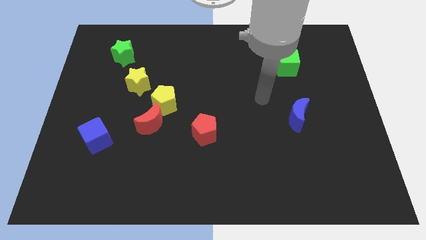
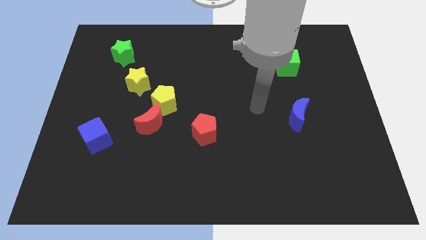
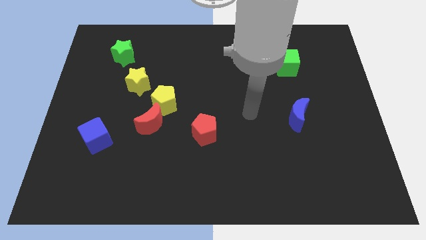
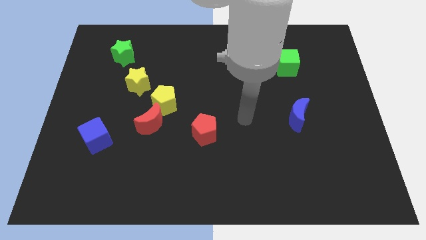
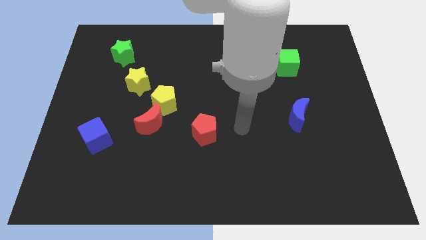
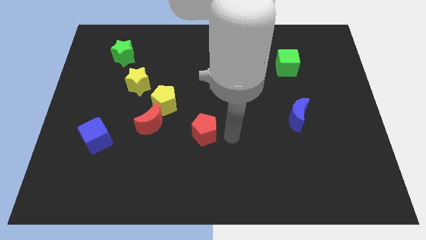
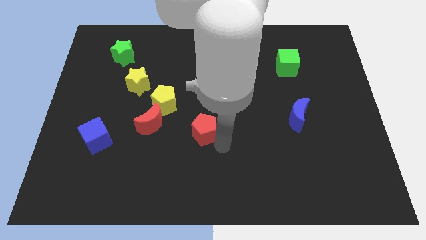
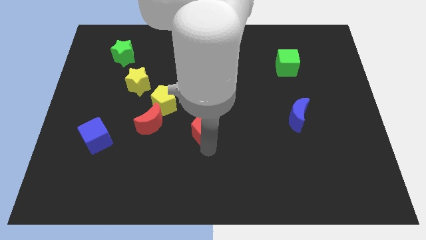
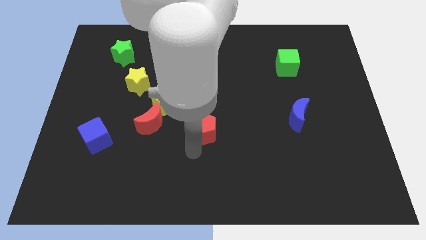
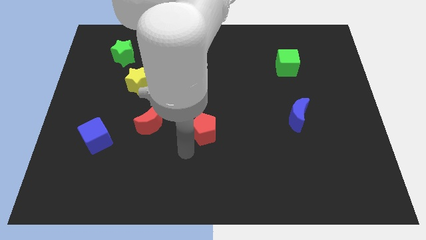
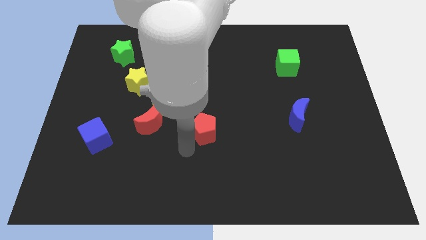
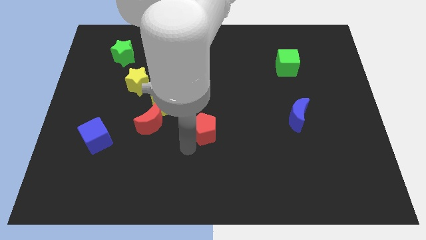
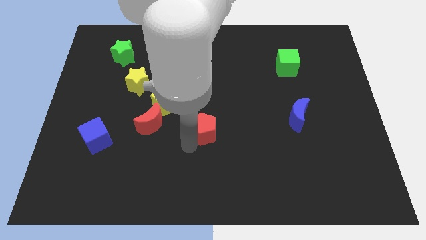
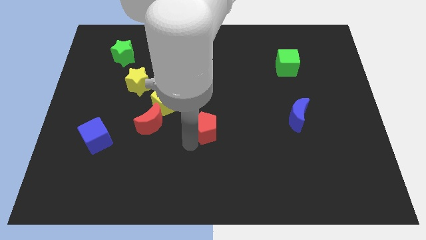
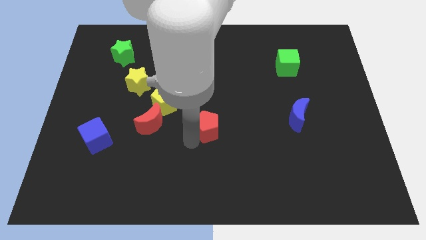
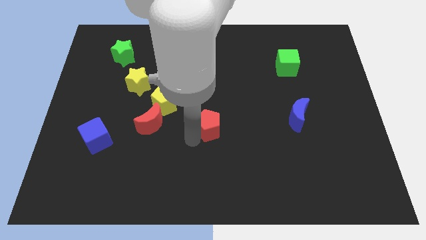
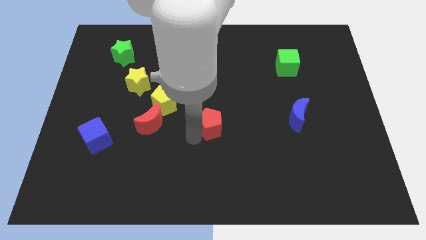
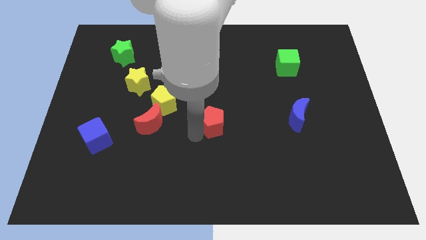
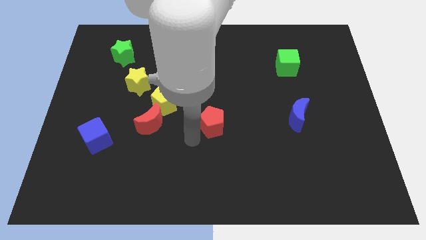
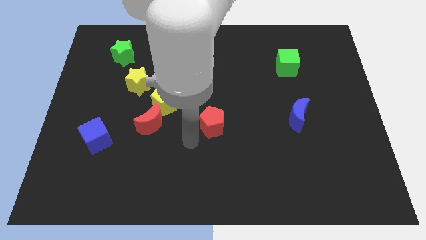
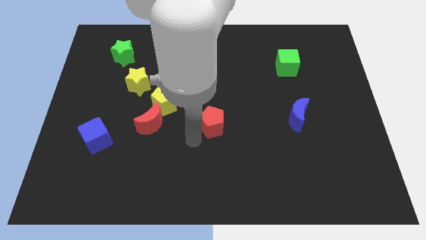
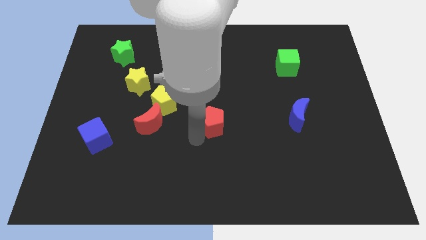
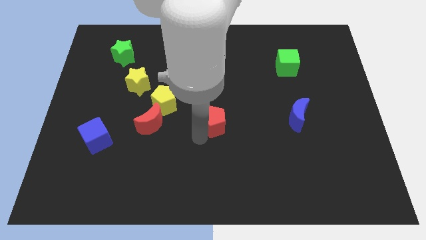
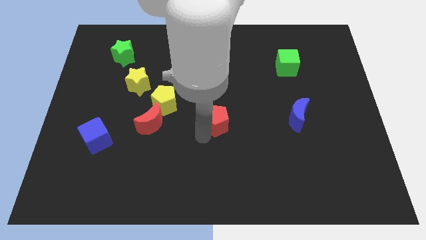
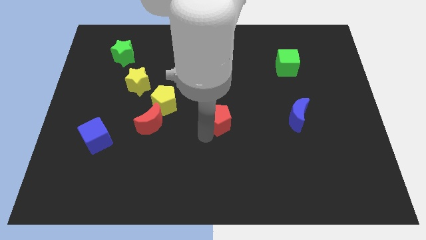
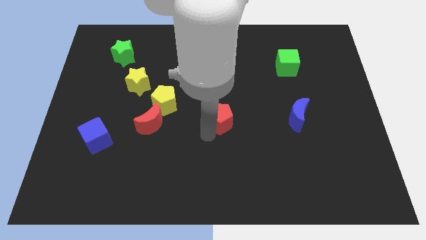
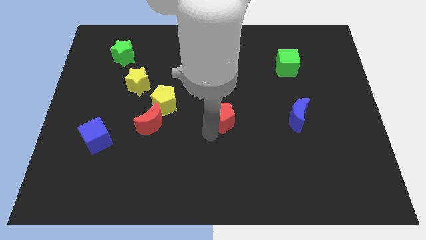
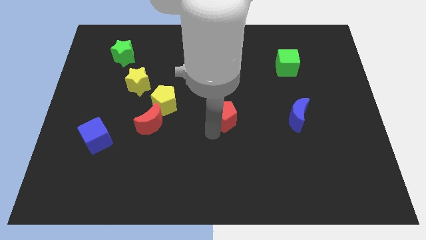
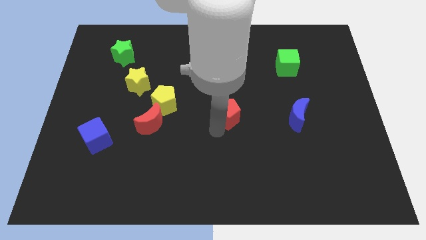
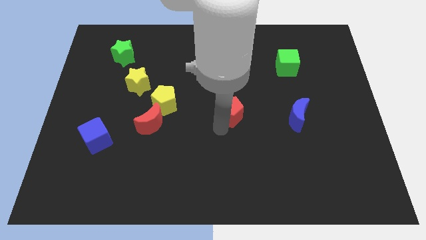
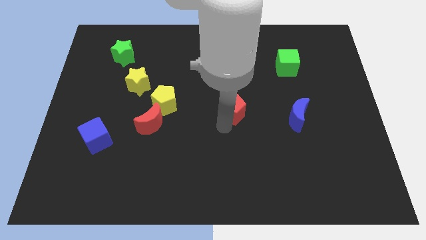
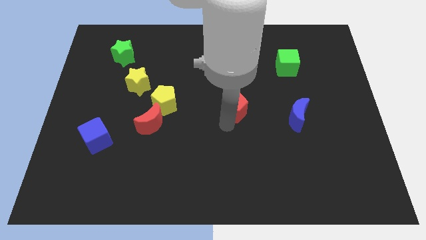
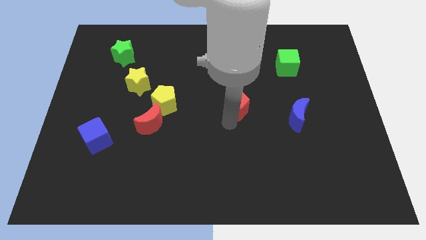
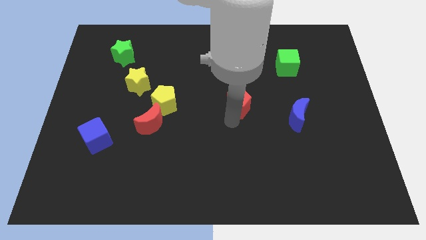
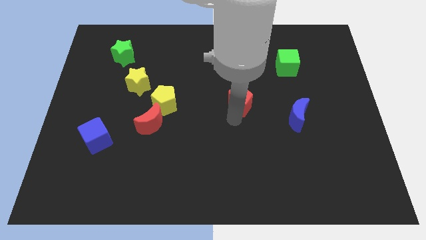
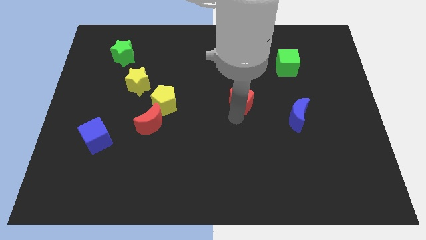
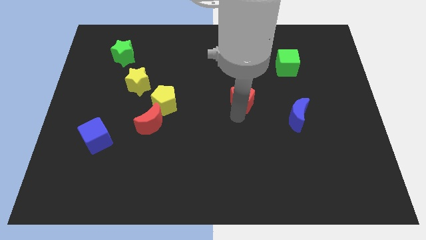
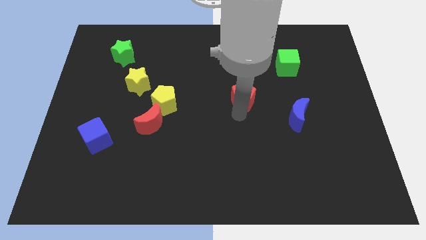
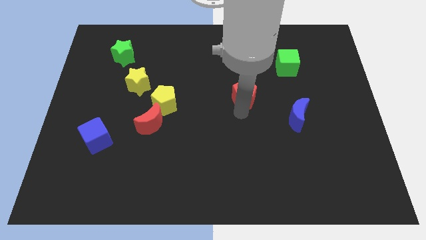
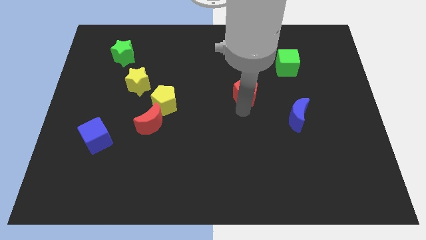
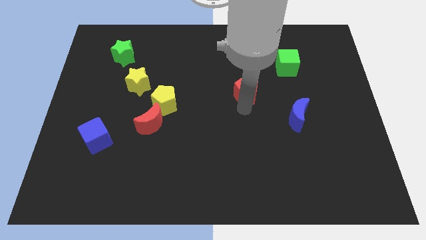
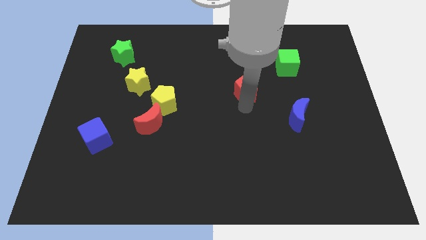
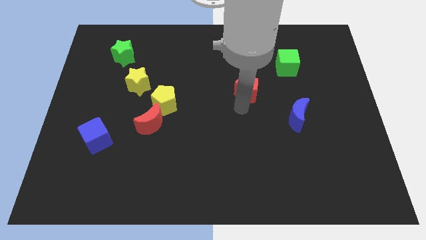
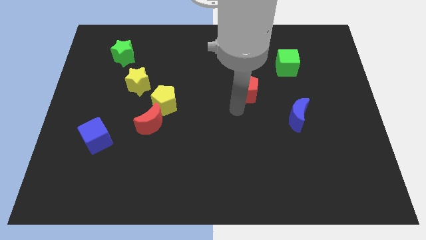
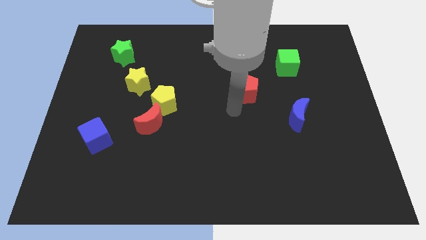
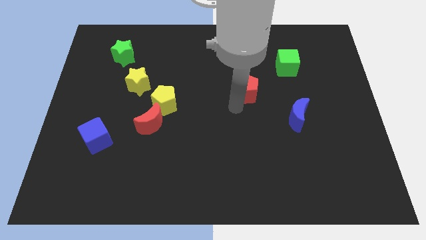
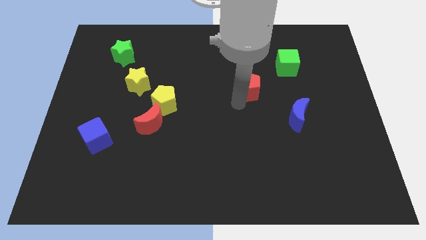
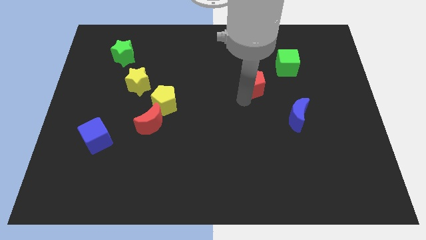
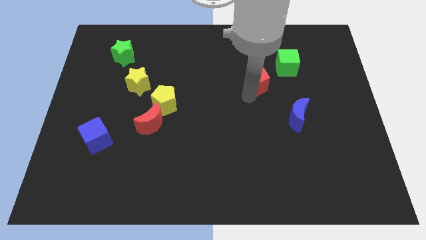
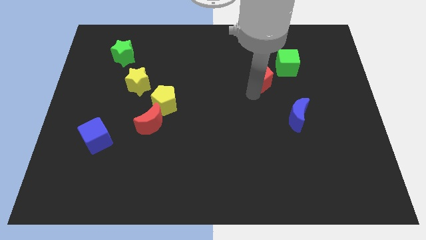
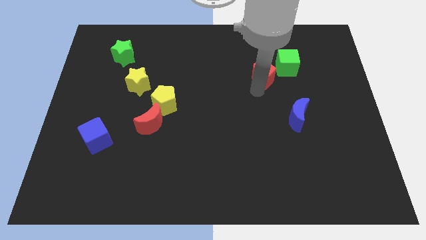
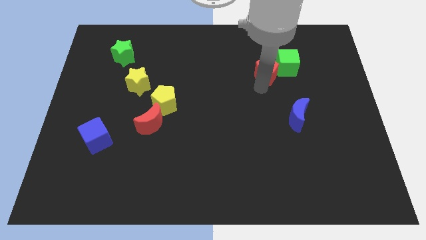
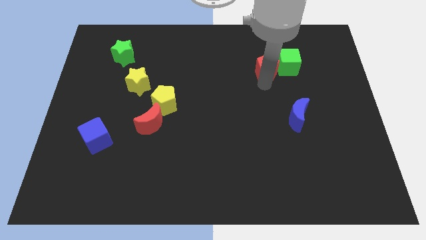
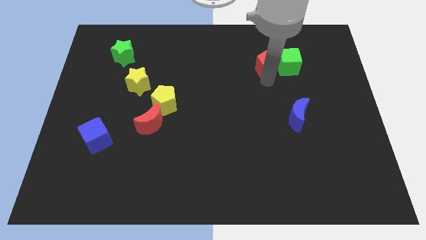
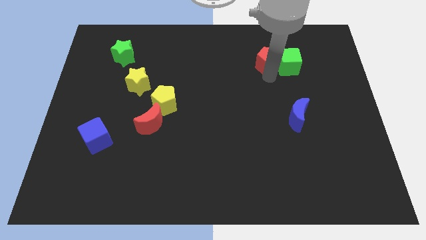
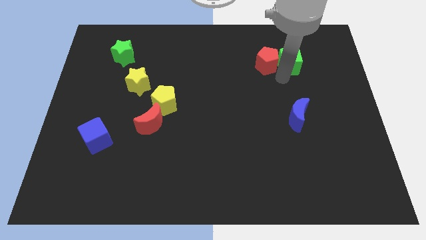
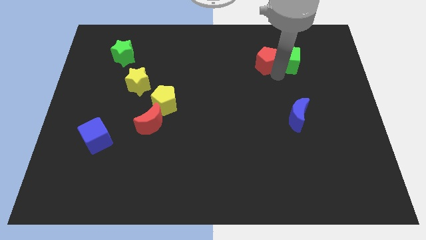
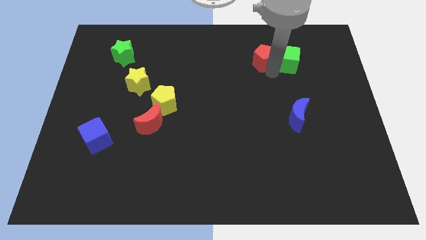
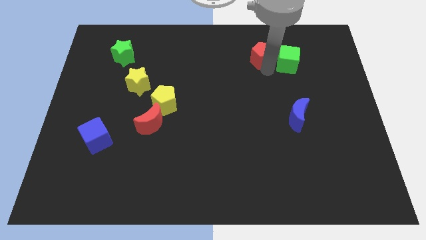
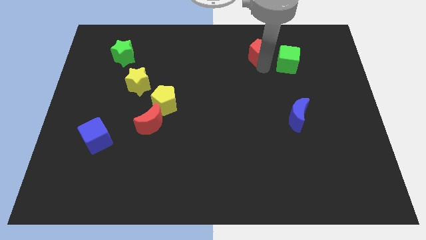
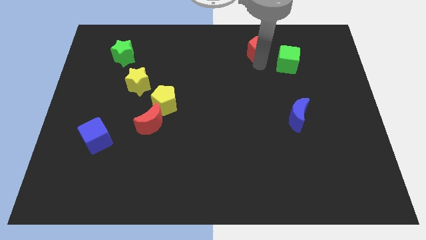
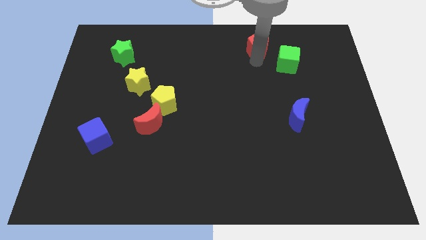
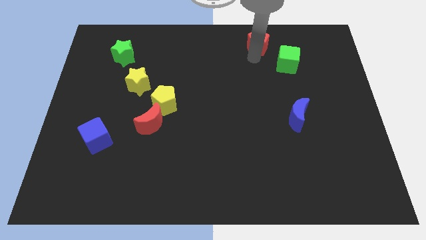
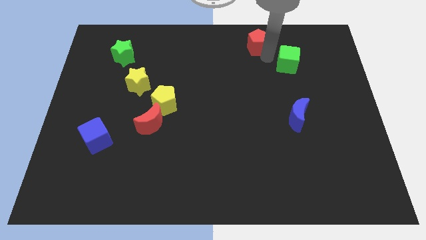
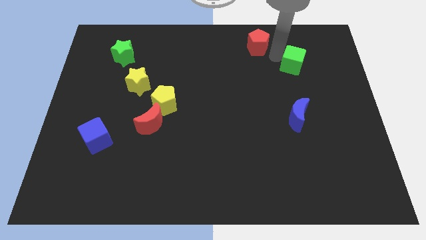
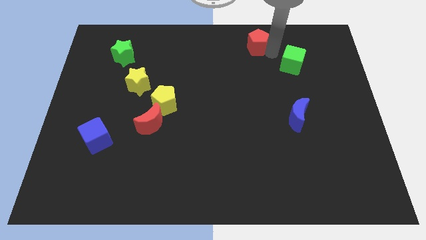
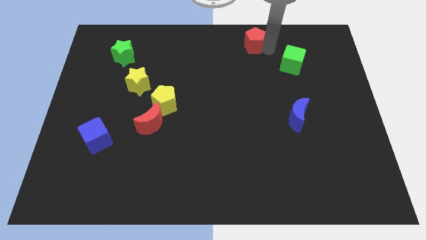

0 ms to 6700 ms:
move the red pentagon to the towards your base
